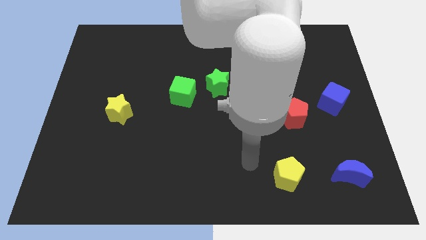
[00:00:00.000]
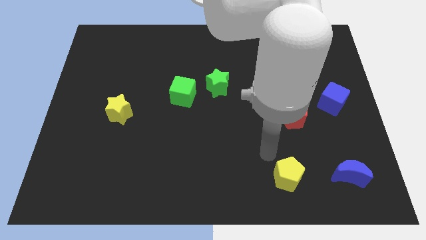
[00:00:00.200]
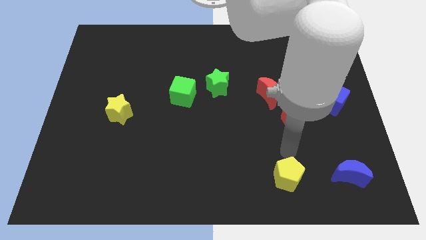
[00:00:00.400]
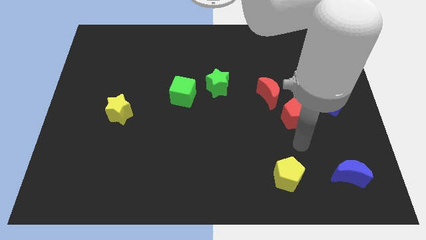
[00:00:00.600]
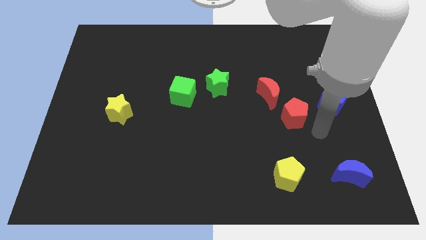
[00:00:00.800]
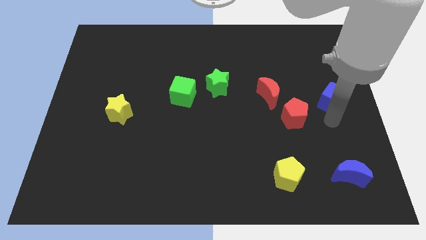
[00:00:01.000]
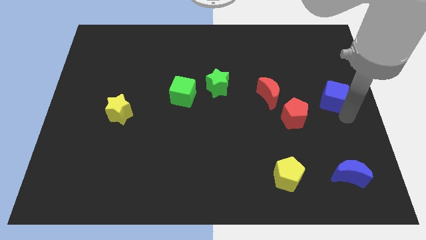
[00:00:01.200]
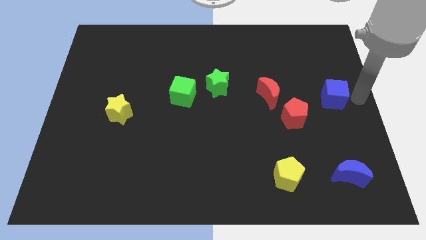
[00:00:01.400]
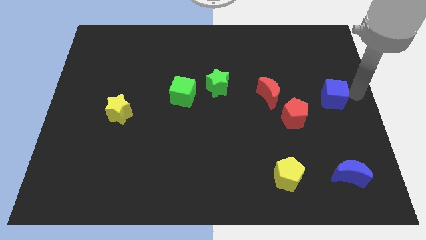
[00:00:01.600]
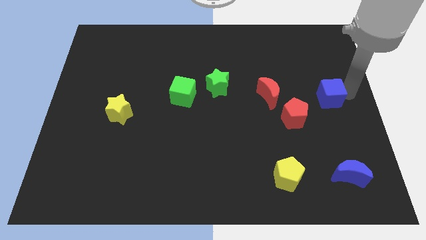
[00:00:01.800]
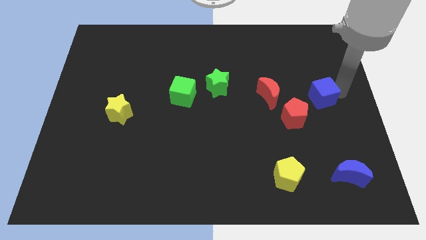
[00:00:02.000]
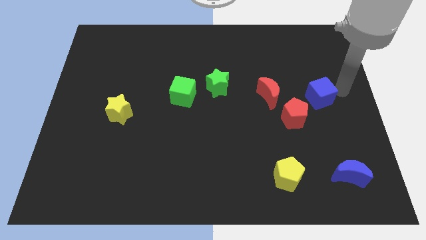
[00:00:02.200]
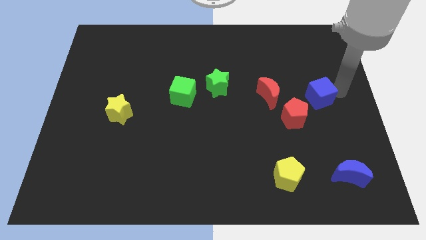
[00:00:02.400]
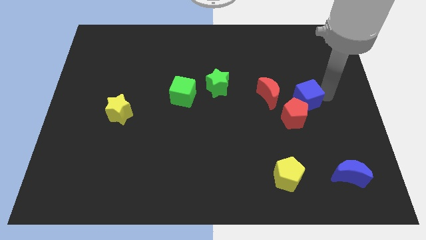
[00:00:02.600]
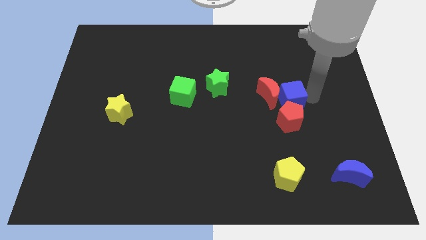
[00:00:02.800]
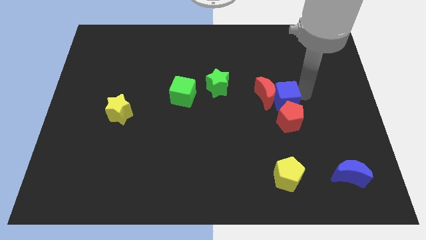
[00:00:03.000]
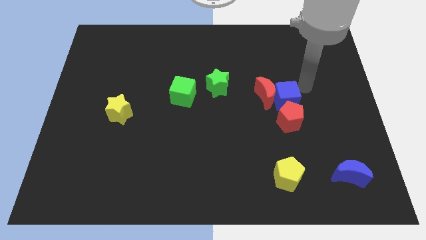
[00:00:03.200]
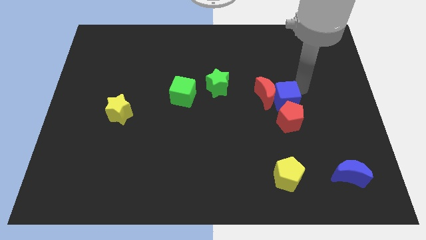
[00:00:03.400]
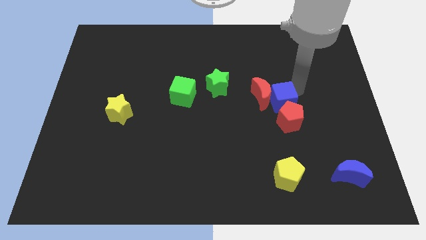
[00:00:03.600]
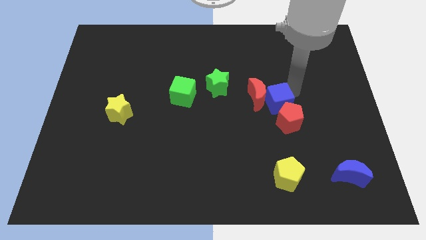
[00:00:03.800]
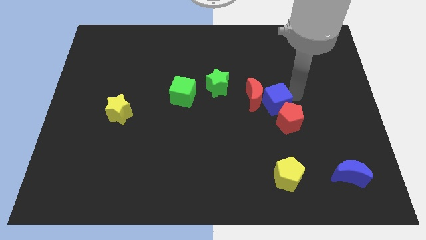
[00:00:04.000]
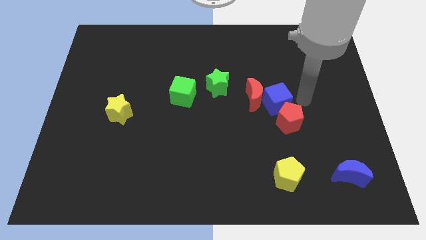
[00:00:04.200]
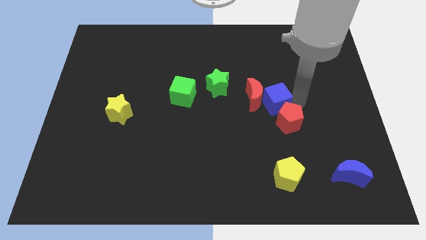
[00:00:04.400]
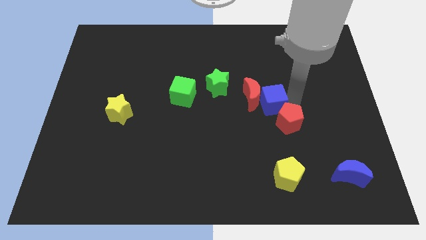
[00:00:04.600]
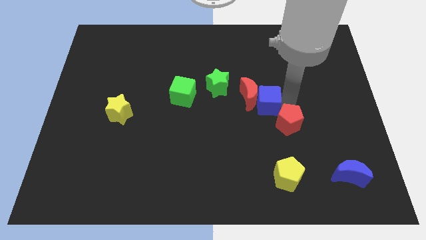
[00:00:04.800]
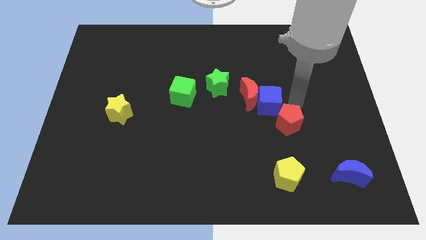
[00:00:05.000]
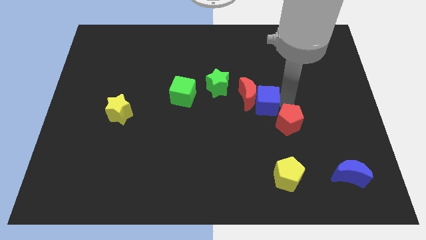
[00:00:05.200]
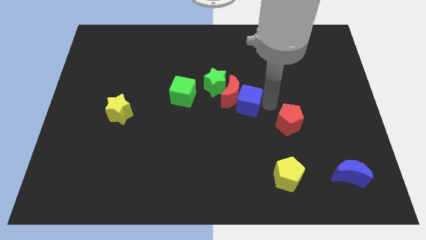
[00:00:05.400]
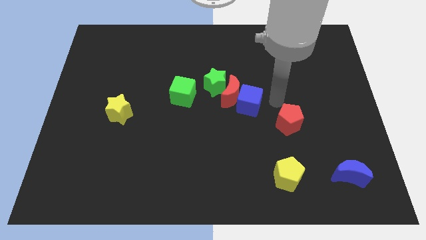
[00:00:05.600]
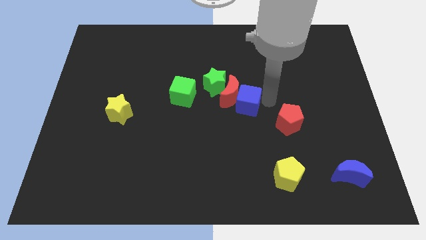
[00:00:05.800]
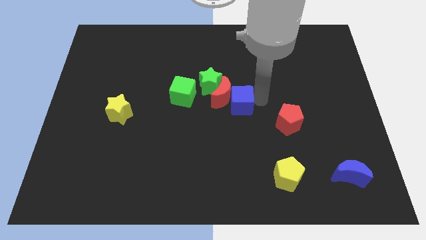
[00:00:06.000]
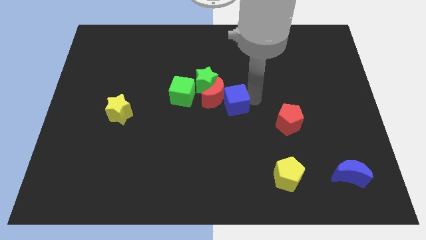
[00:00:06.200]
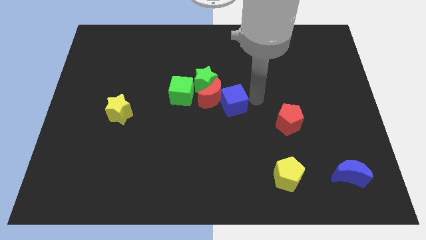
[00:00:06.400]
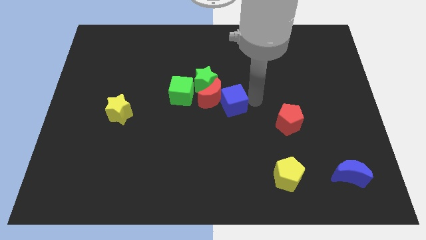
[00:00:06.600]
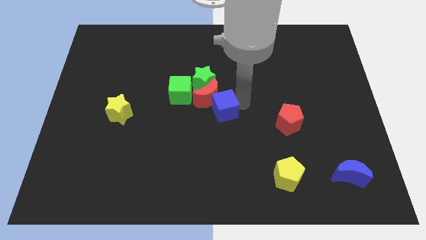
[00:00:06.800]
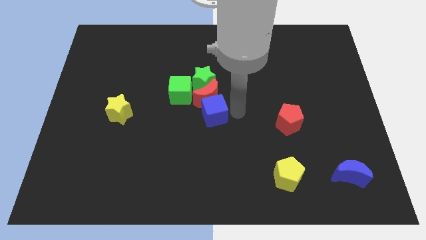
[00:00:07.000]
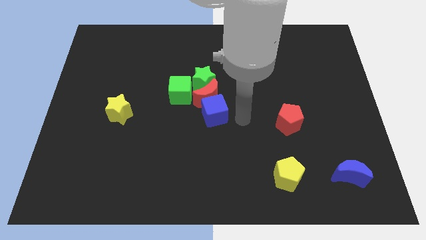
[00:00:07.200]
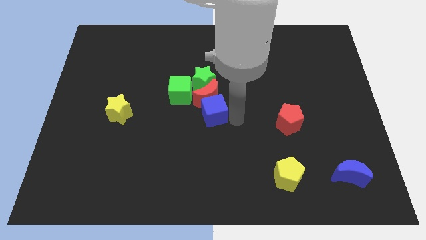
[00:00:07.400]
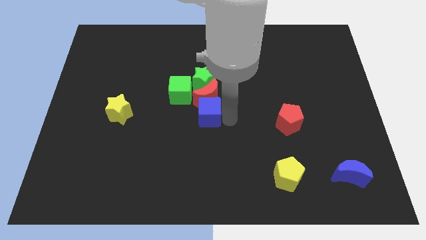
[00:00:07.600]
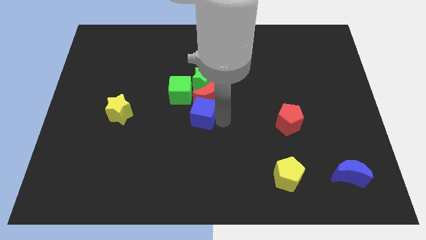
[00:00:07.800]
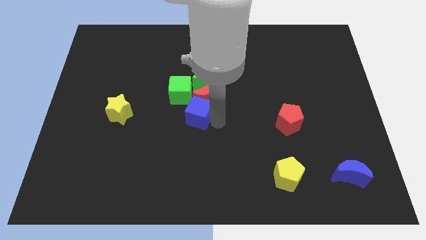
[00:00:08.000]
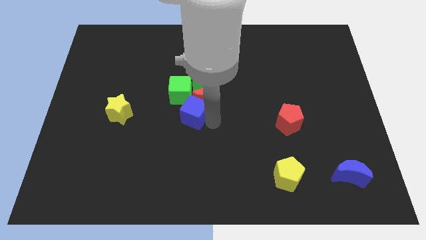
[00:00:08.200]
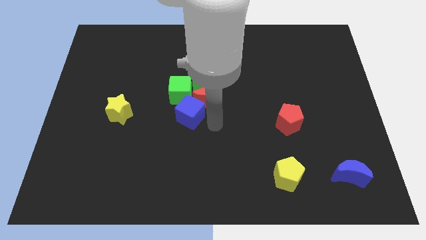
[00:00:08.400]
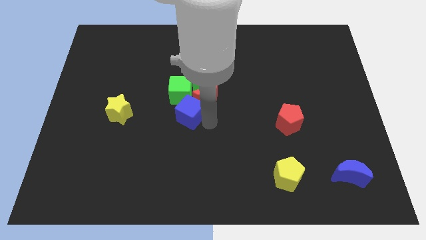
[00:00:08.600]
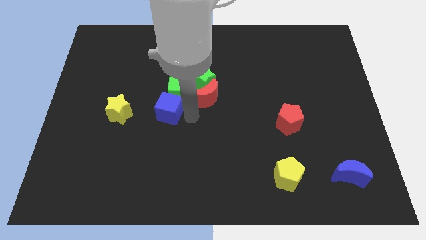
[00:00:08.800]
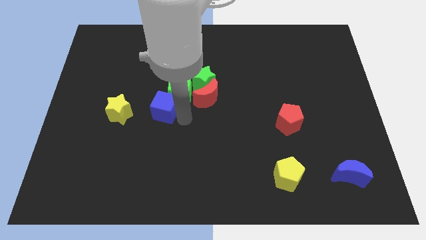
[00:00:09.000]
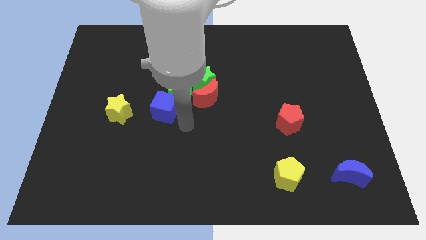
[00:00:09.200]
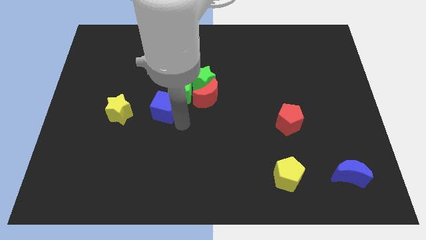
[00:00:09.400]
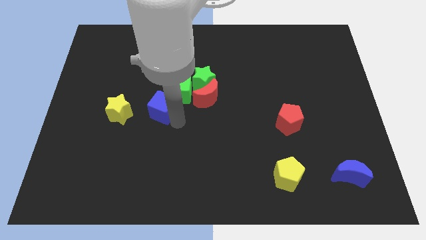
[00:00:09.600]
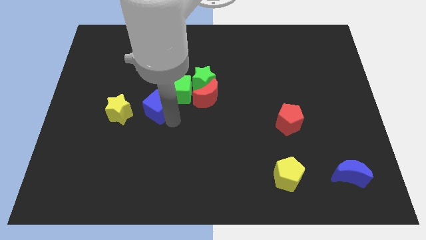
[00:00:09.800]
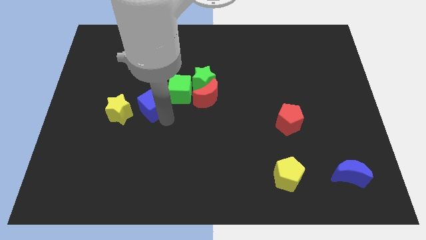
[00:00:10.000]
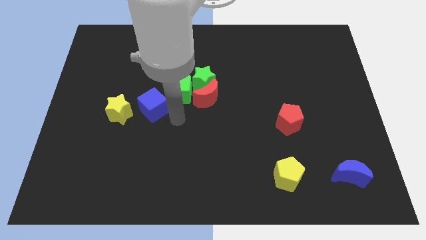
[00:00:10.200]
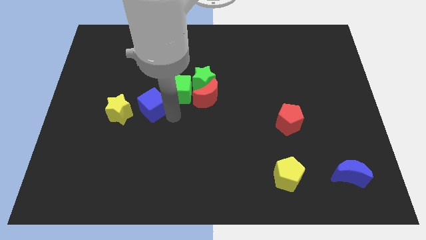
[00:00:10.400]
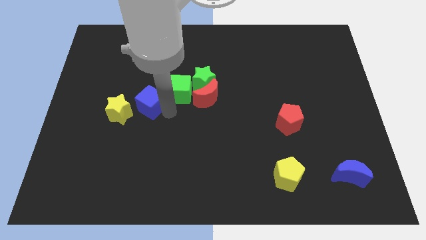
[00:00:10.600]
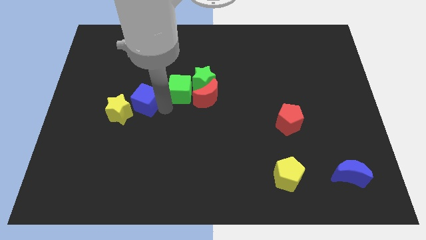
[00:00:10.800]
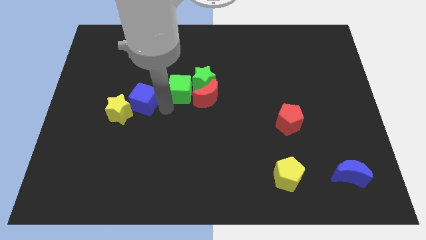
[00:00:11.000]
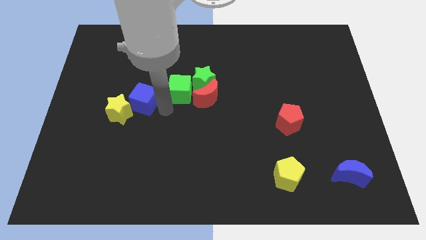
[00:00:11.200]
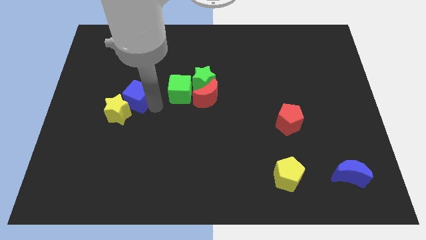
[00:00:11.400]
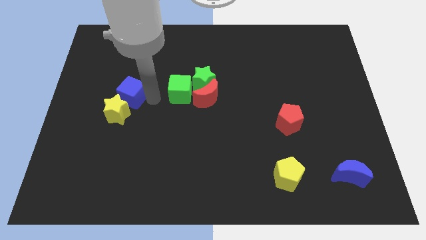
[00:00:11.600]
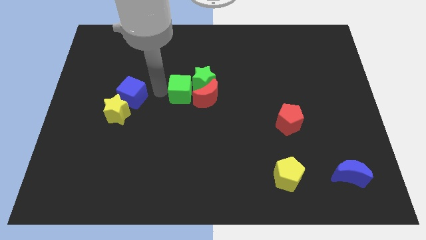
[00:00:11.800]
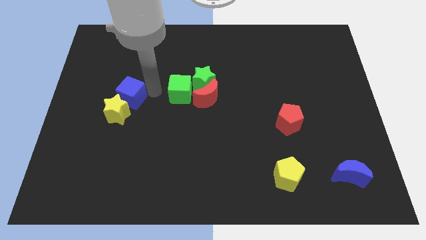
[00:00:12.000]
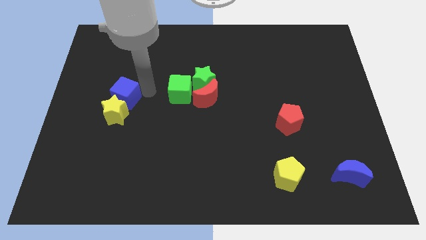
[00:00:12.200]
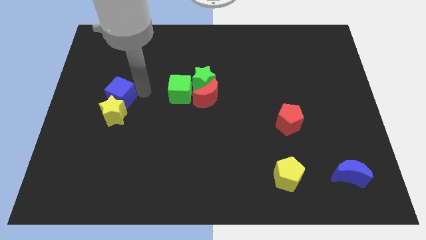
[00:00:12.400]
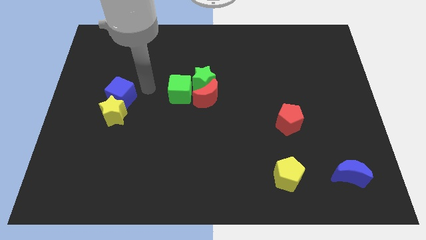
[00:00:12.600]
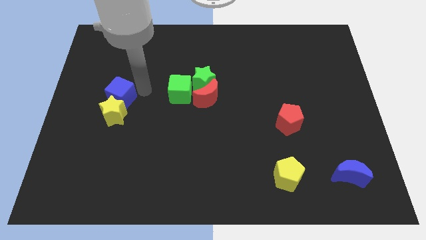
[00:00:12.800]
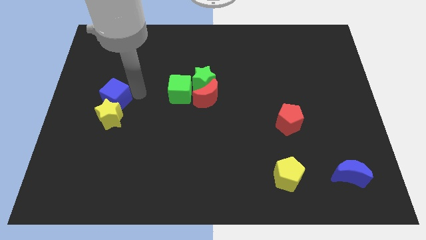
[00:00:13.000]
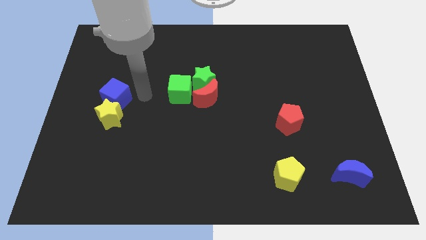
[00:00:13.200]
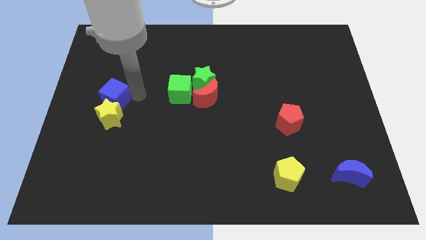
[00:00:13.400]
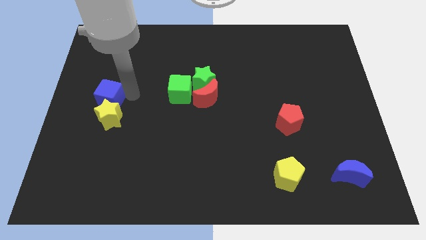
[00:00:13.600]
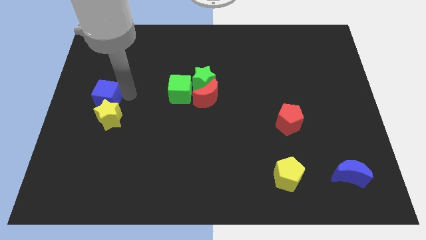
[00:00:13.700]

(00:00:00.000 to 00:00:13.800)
move the blue cube to the center left

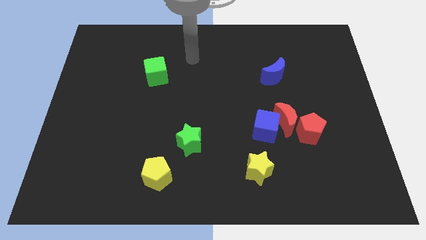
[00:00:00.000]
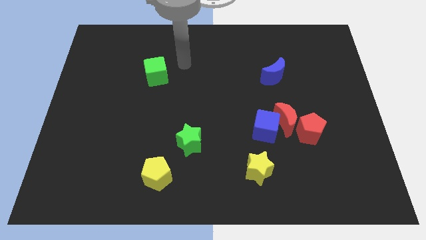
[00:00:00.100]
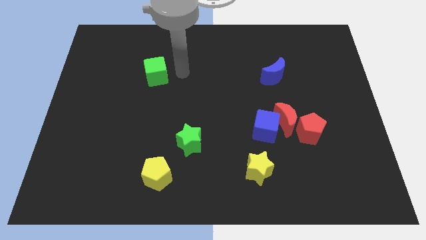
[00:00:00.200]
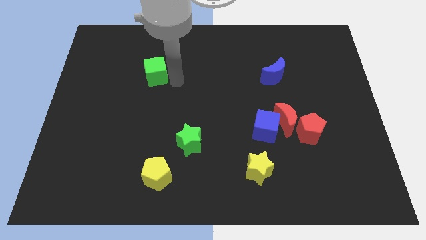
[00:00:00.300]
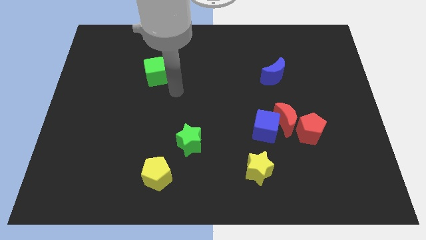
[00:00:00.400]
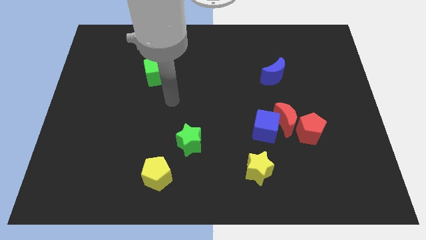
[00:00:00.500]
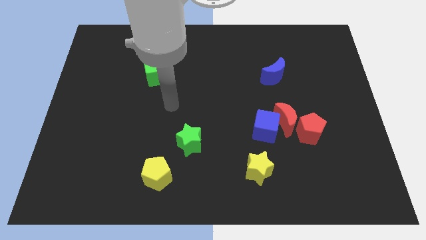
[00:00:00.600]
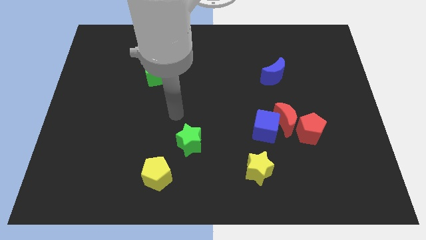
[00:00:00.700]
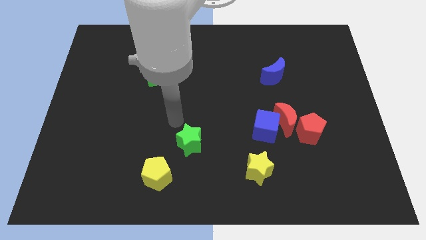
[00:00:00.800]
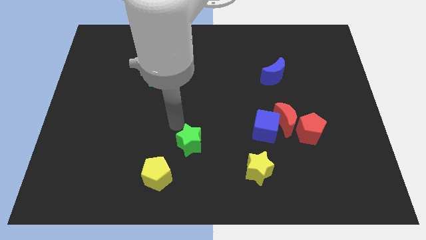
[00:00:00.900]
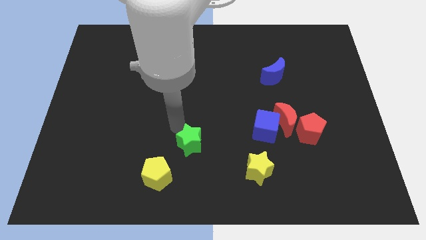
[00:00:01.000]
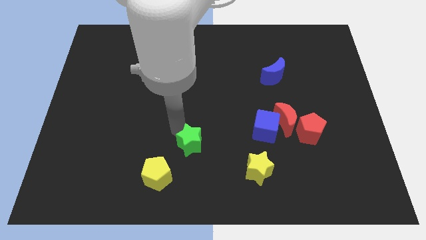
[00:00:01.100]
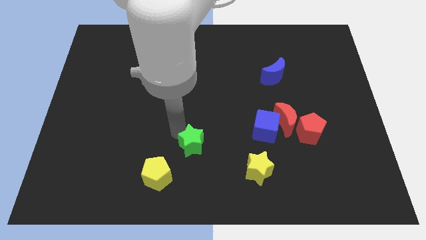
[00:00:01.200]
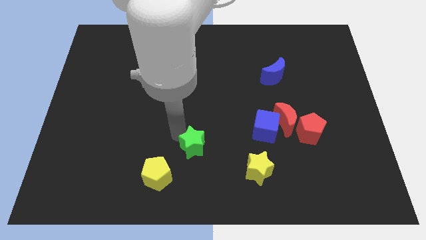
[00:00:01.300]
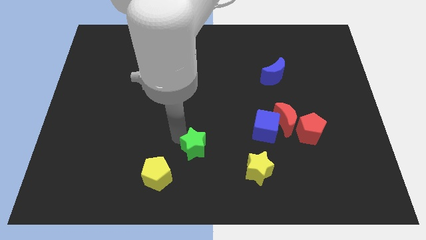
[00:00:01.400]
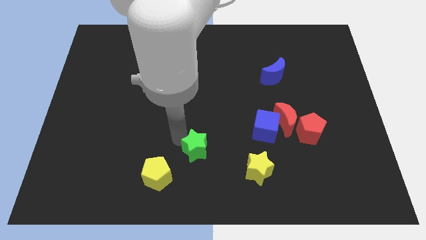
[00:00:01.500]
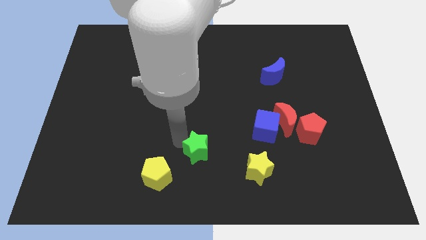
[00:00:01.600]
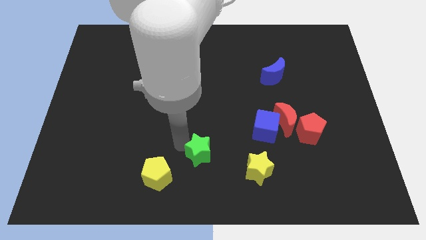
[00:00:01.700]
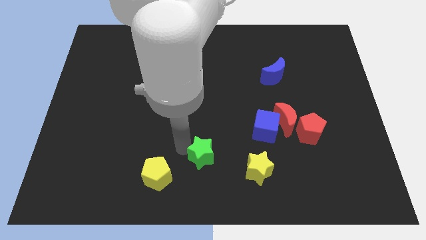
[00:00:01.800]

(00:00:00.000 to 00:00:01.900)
slide the green star to the bottom side
